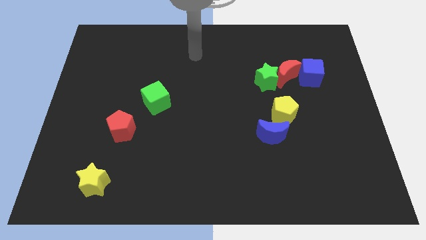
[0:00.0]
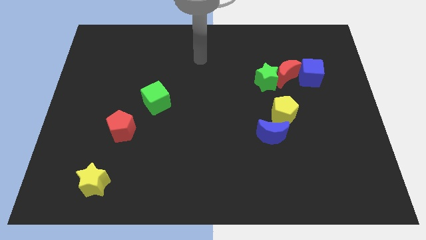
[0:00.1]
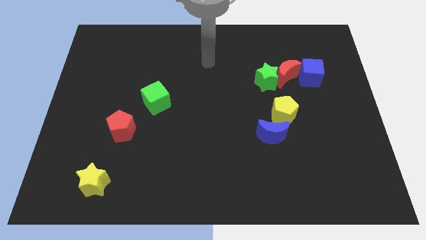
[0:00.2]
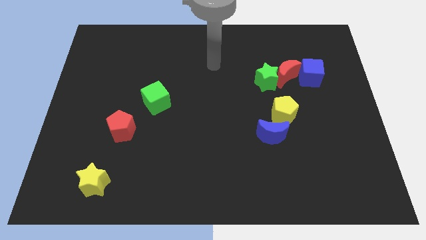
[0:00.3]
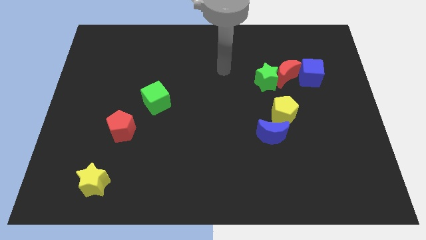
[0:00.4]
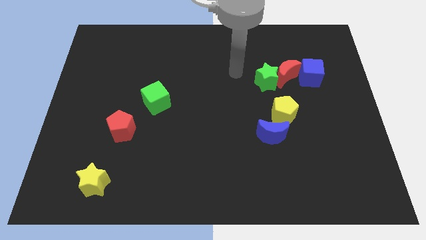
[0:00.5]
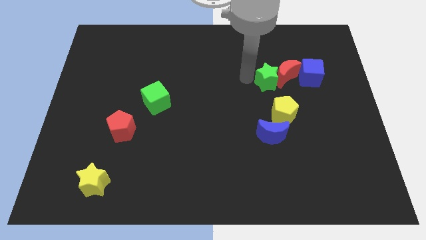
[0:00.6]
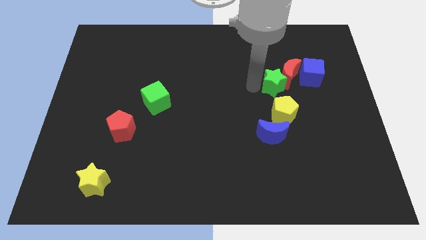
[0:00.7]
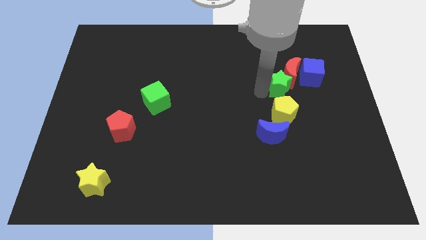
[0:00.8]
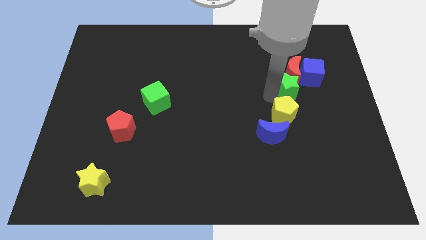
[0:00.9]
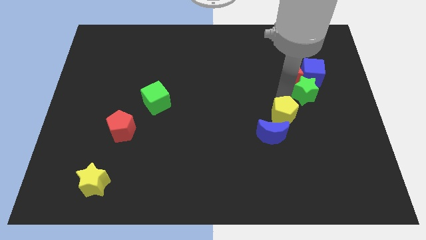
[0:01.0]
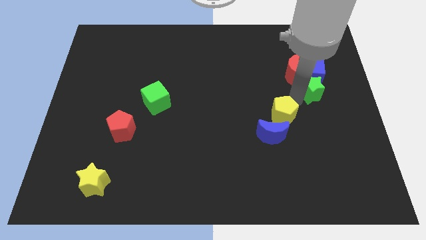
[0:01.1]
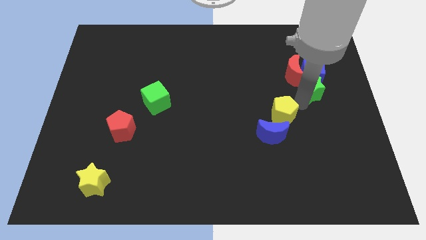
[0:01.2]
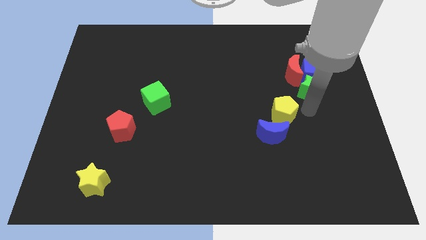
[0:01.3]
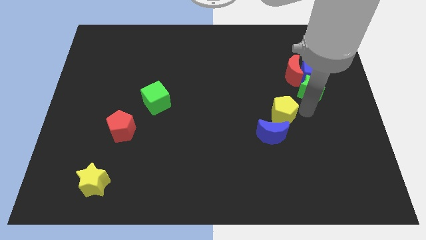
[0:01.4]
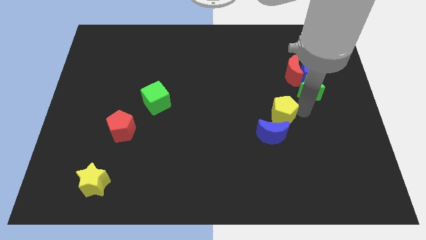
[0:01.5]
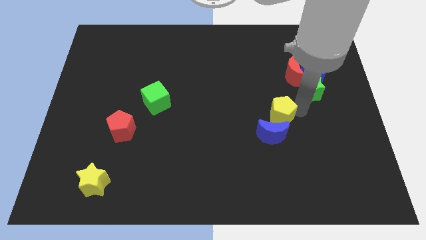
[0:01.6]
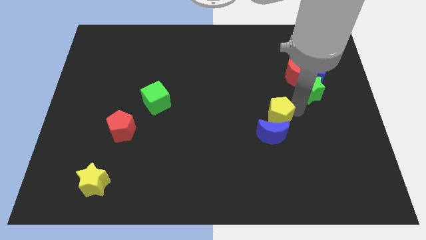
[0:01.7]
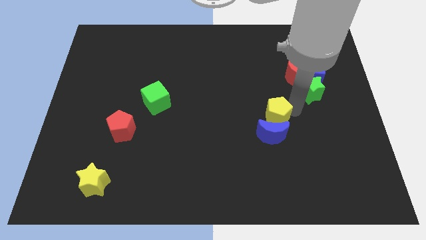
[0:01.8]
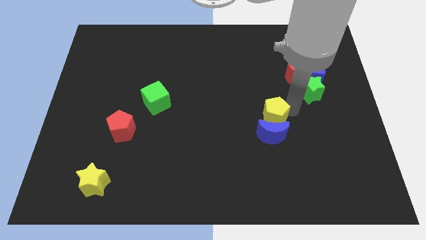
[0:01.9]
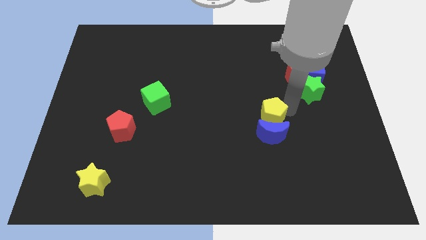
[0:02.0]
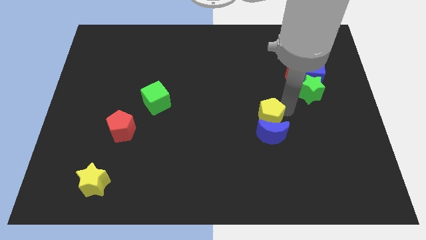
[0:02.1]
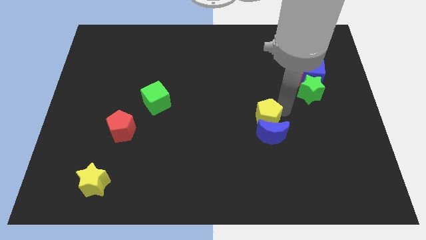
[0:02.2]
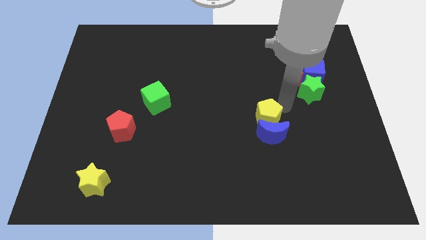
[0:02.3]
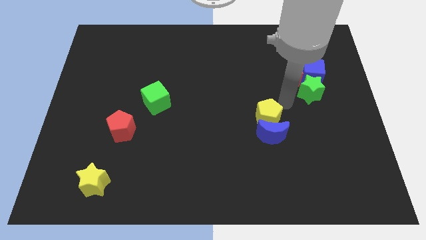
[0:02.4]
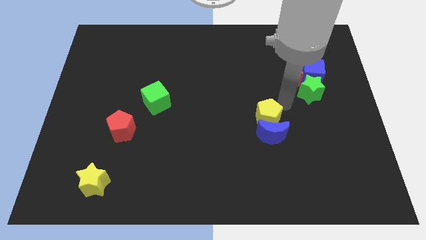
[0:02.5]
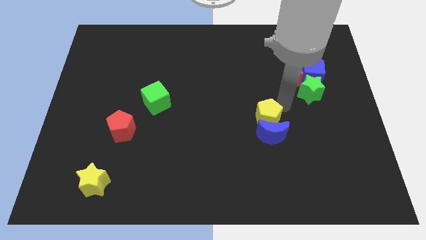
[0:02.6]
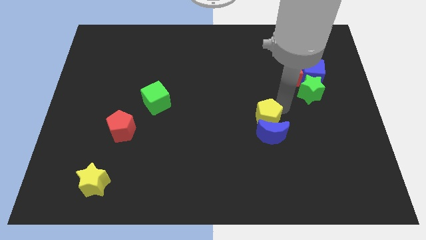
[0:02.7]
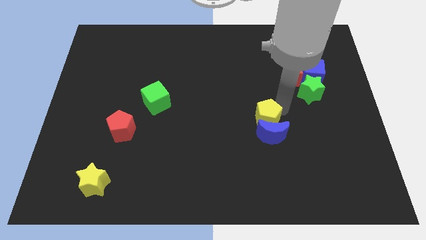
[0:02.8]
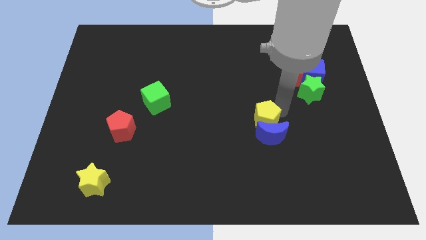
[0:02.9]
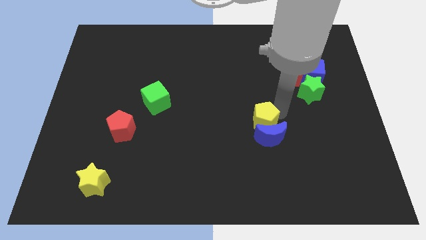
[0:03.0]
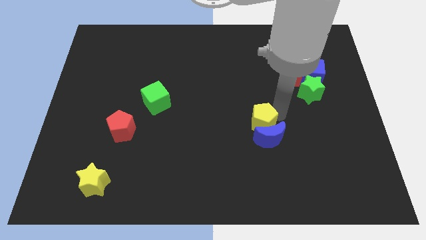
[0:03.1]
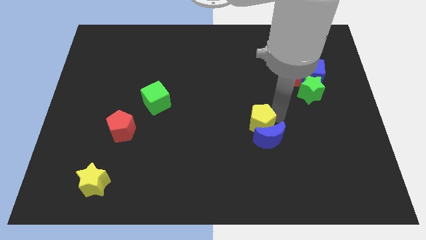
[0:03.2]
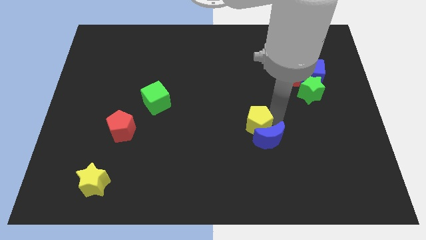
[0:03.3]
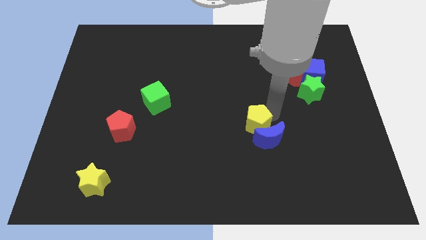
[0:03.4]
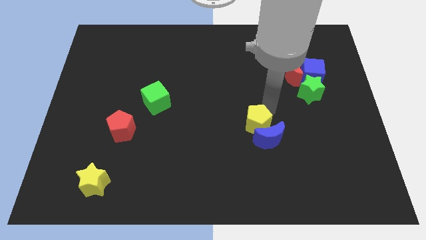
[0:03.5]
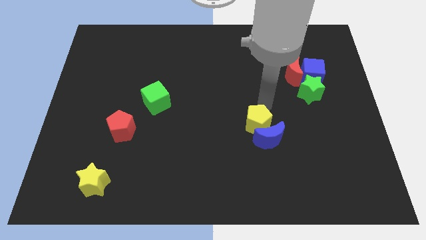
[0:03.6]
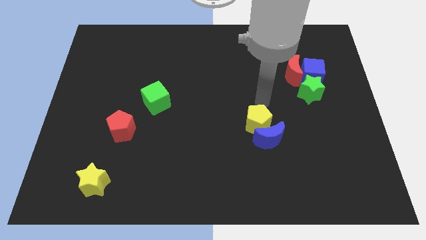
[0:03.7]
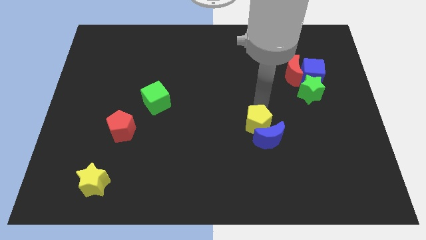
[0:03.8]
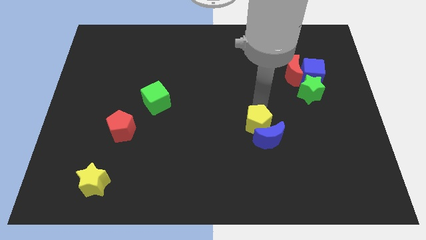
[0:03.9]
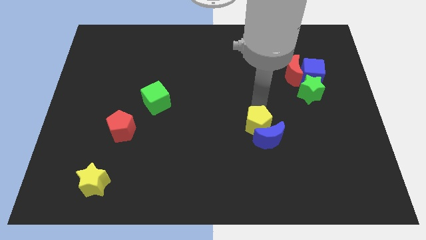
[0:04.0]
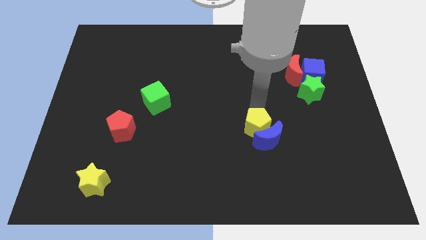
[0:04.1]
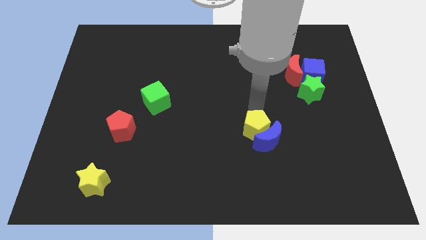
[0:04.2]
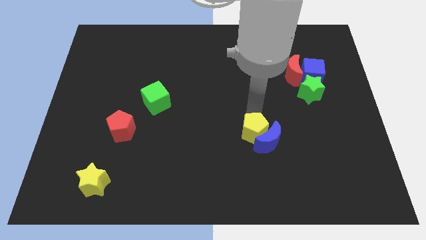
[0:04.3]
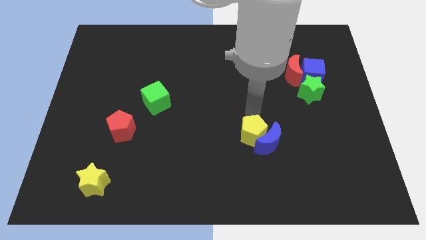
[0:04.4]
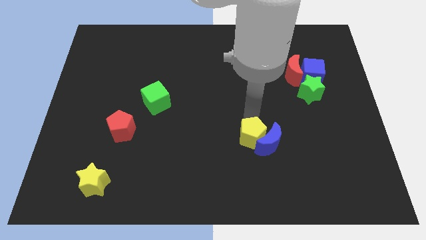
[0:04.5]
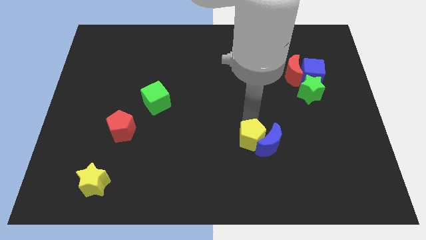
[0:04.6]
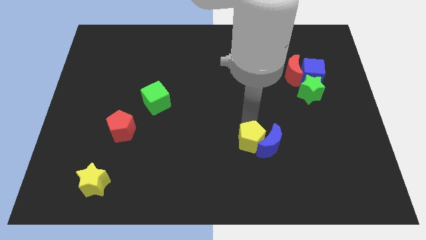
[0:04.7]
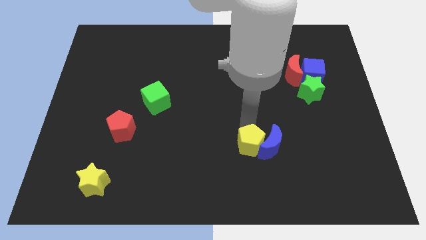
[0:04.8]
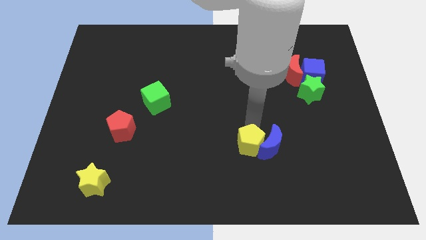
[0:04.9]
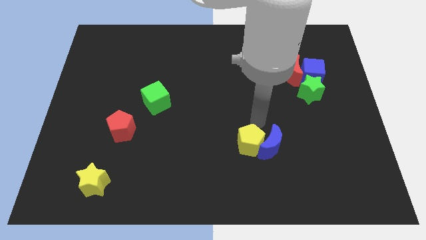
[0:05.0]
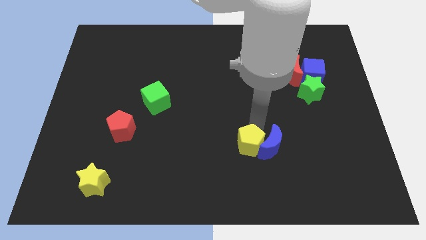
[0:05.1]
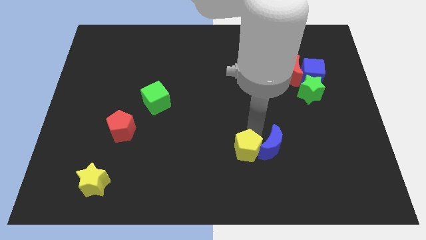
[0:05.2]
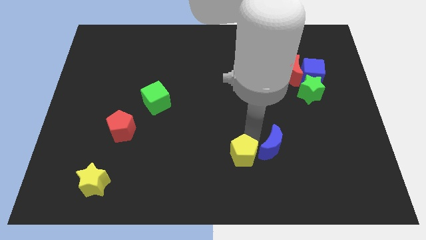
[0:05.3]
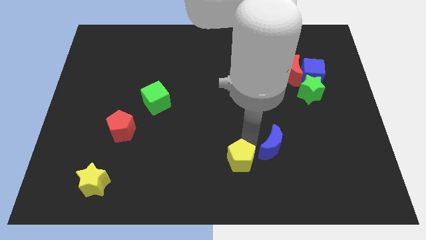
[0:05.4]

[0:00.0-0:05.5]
put the yellow pentagon to the bottom side

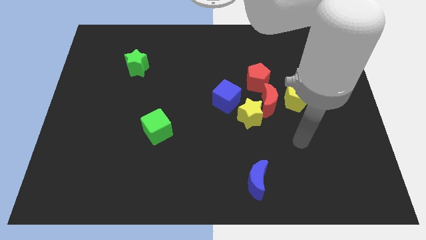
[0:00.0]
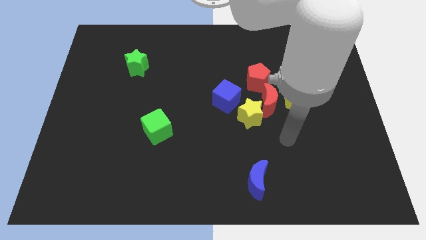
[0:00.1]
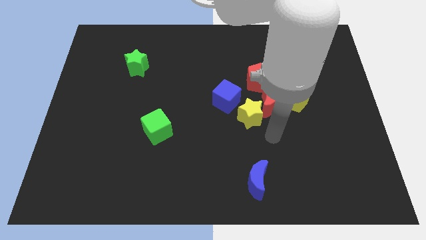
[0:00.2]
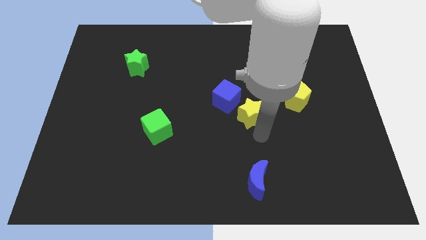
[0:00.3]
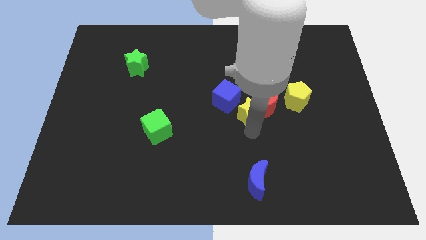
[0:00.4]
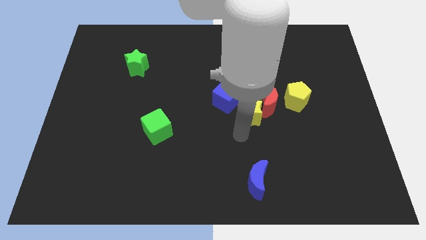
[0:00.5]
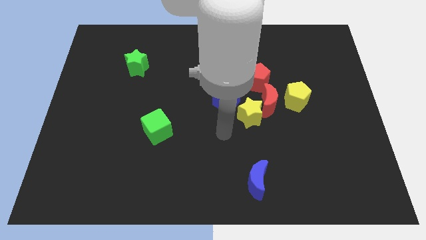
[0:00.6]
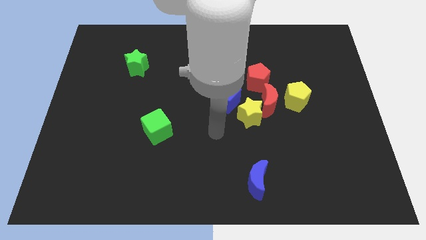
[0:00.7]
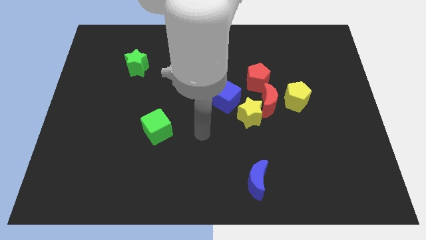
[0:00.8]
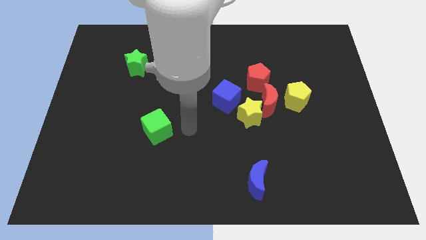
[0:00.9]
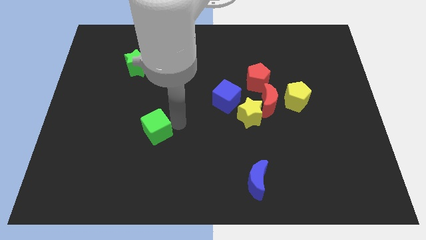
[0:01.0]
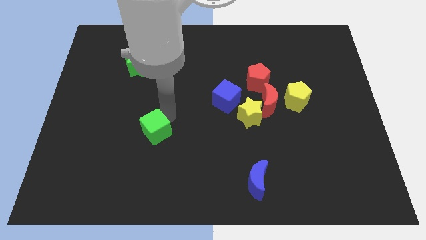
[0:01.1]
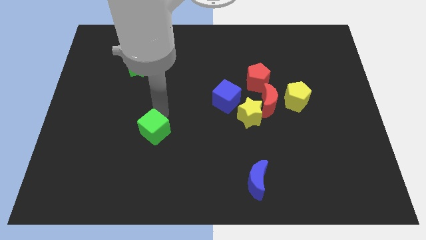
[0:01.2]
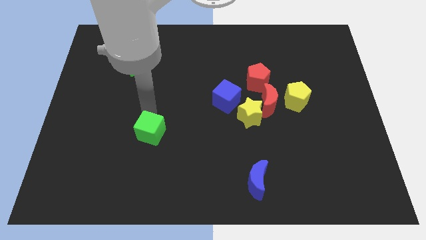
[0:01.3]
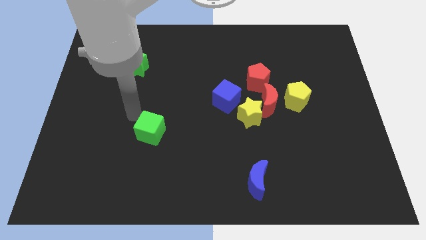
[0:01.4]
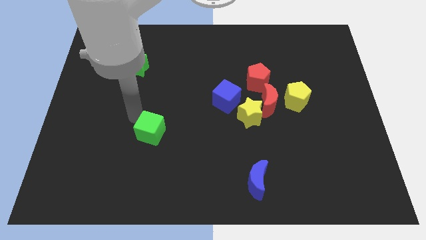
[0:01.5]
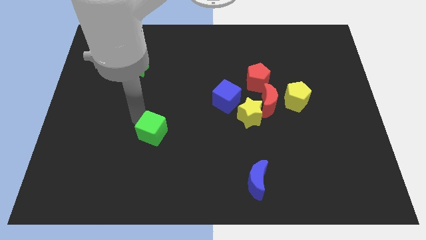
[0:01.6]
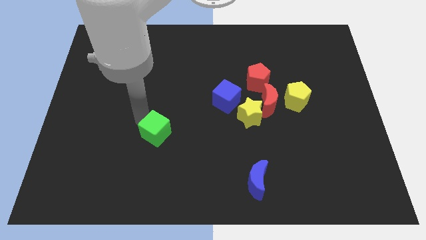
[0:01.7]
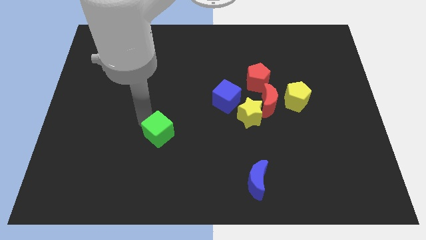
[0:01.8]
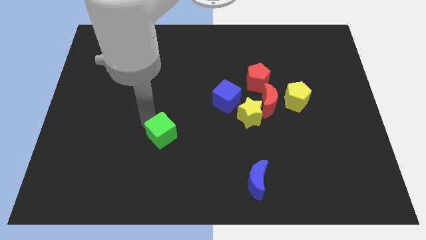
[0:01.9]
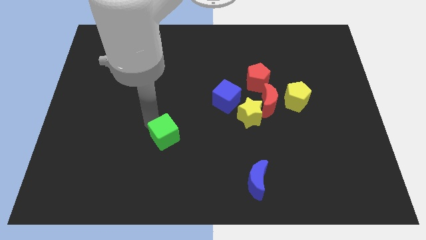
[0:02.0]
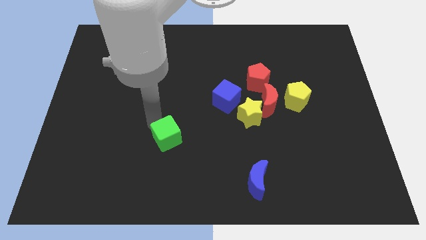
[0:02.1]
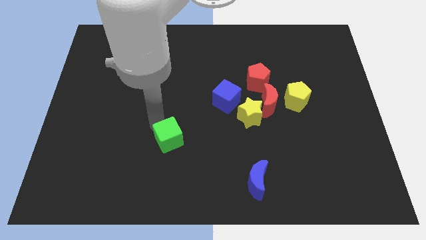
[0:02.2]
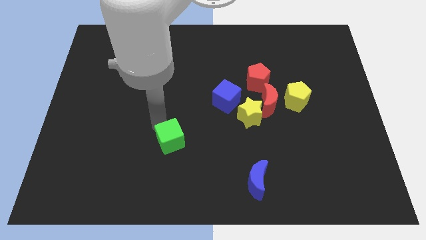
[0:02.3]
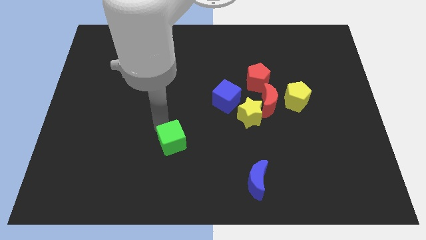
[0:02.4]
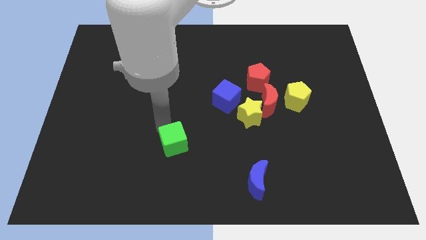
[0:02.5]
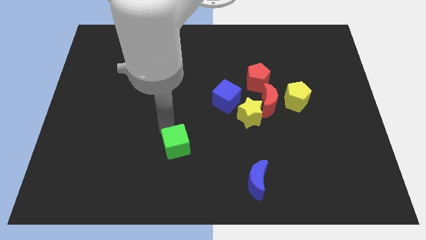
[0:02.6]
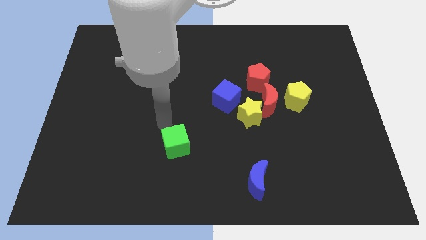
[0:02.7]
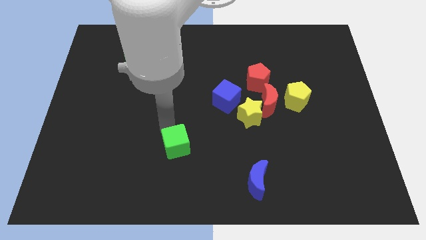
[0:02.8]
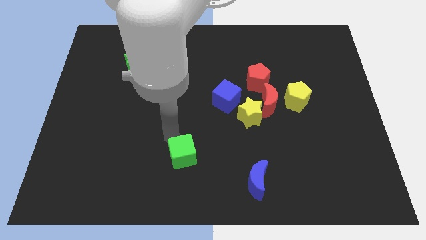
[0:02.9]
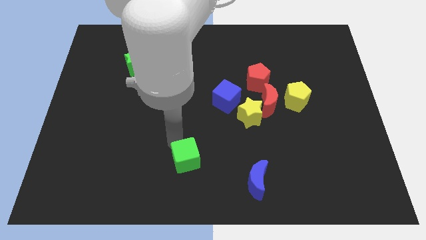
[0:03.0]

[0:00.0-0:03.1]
push the green cube to the bottom
